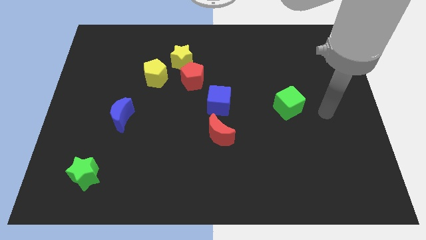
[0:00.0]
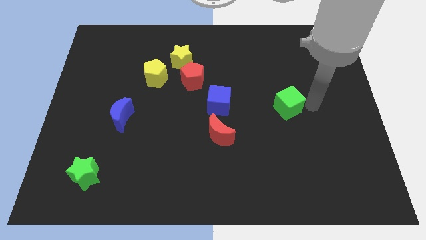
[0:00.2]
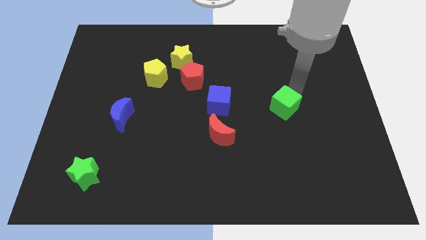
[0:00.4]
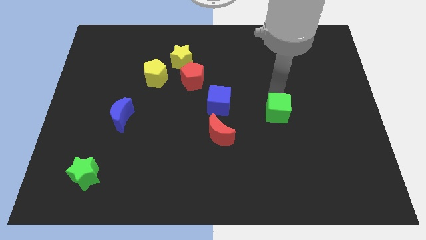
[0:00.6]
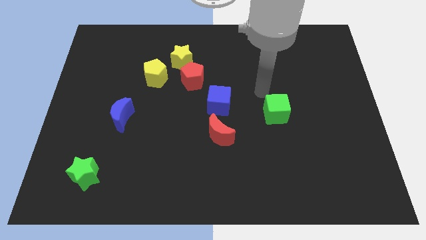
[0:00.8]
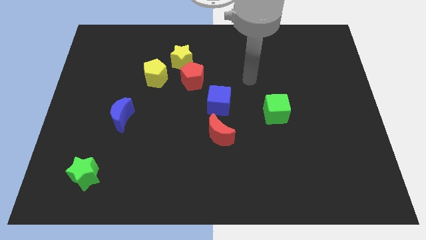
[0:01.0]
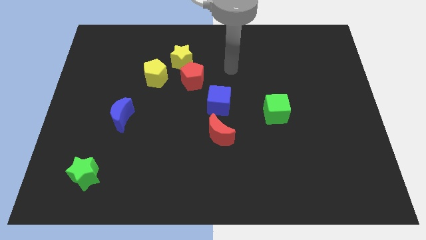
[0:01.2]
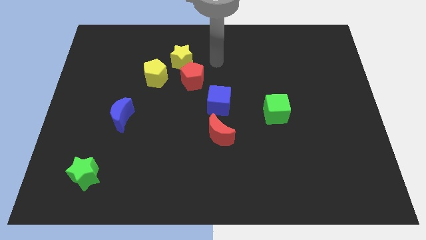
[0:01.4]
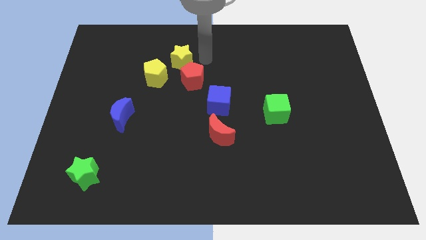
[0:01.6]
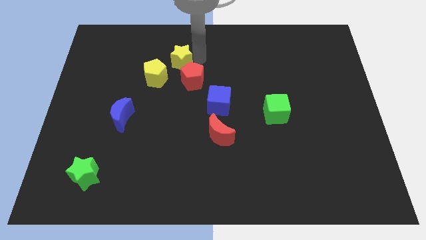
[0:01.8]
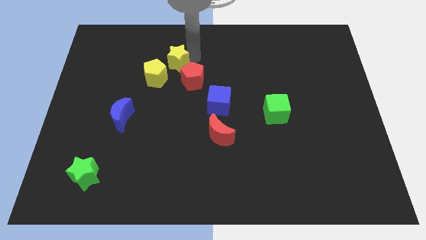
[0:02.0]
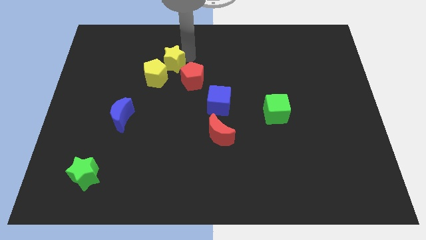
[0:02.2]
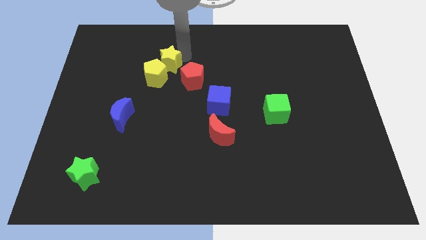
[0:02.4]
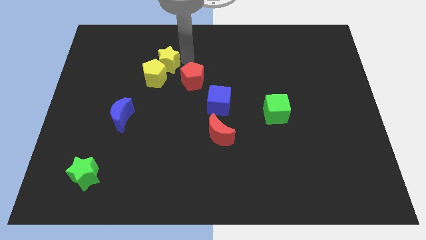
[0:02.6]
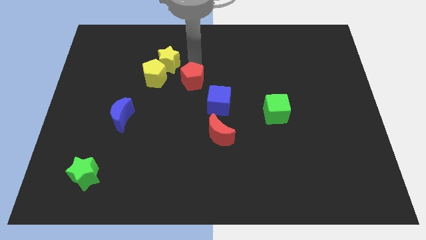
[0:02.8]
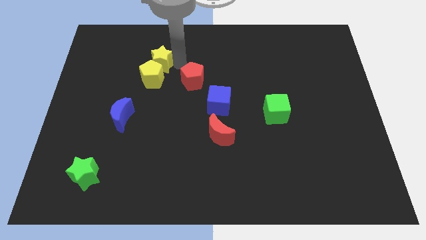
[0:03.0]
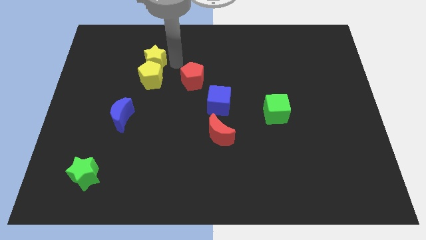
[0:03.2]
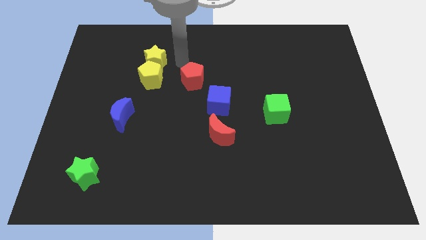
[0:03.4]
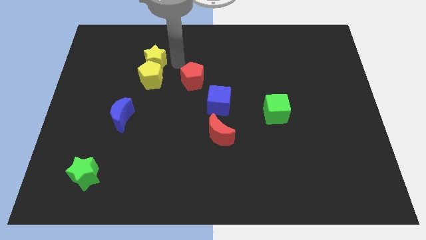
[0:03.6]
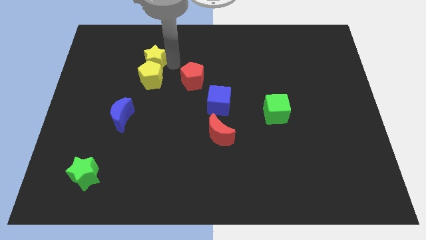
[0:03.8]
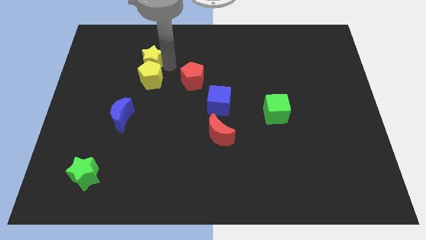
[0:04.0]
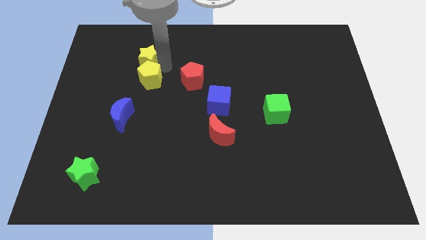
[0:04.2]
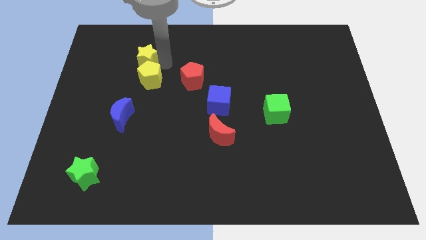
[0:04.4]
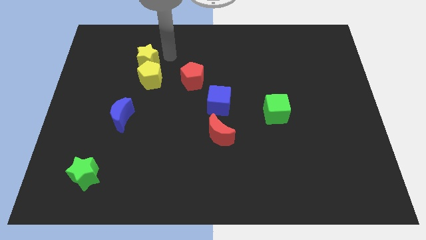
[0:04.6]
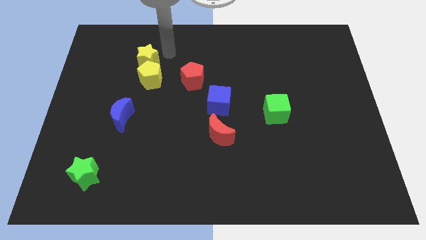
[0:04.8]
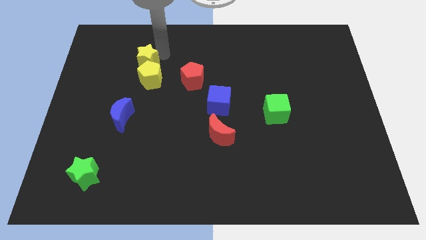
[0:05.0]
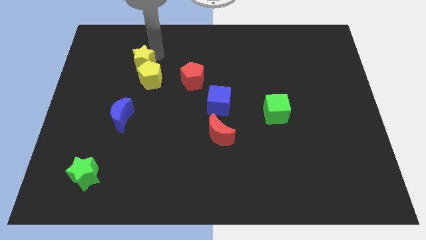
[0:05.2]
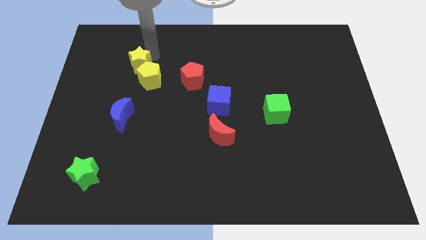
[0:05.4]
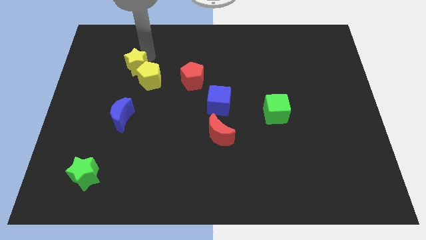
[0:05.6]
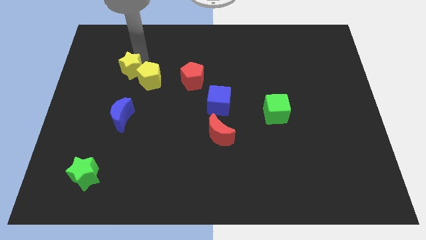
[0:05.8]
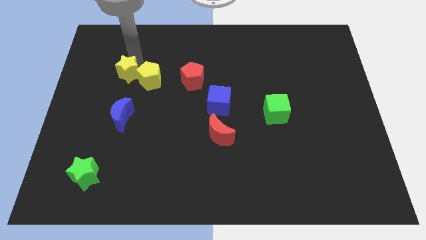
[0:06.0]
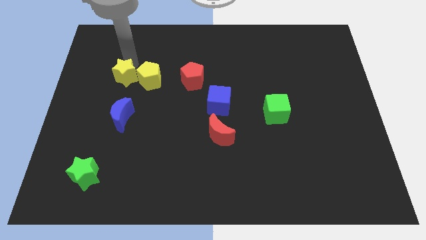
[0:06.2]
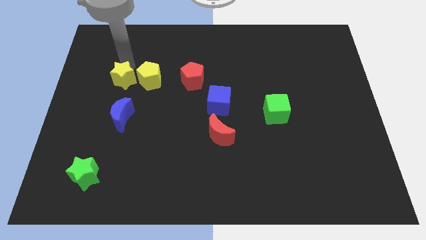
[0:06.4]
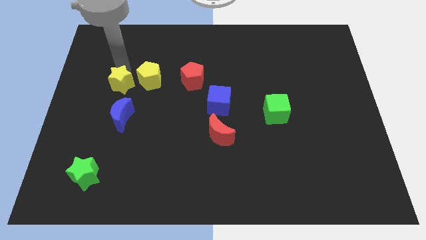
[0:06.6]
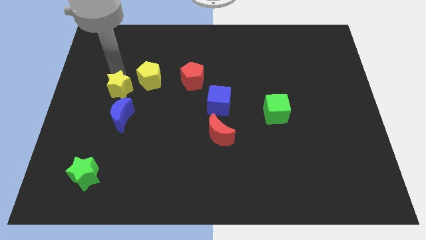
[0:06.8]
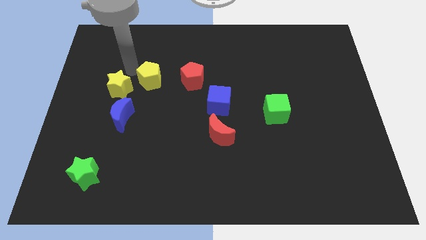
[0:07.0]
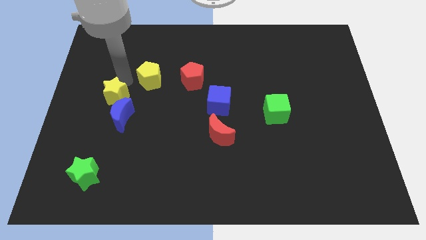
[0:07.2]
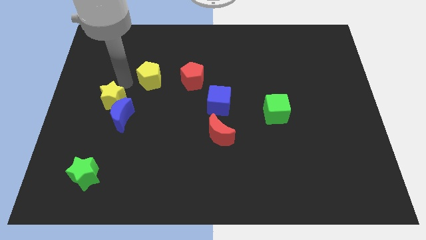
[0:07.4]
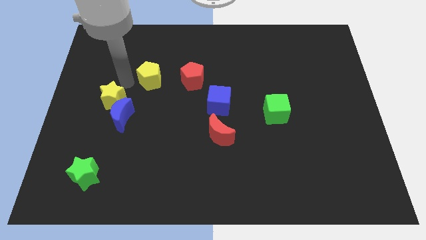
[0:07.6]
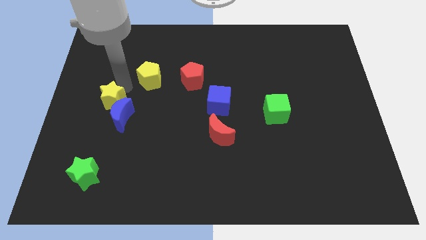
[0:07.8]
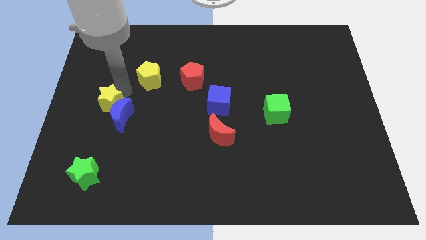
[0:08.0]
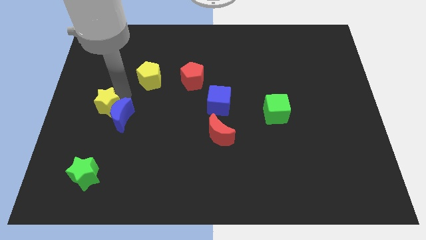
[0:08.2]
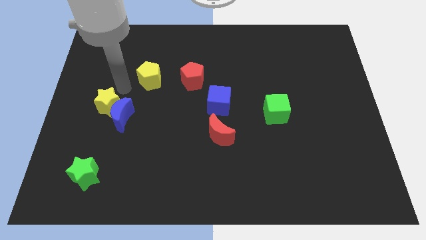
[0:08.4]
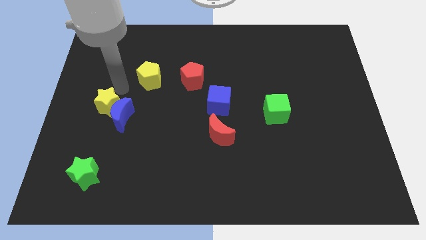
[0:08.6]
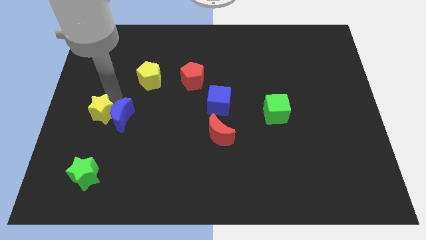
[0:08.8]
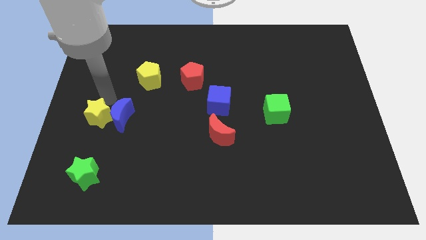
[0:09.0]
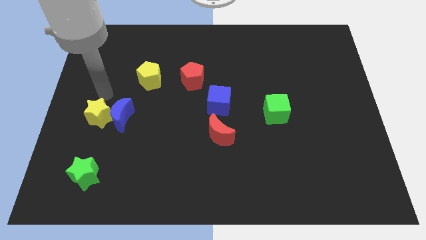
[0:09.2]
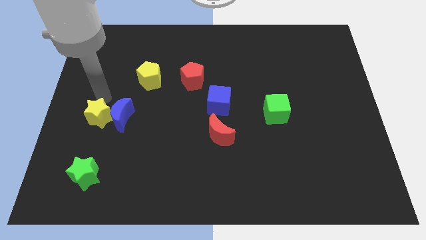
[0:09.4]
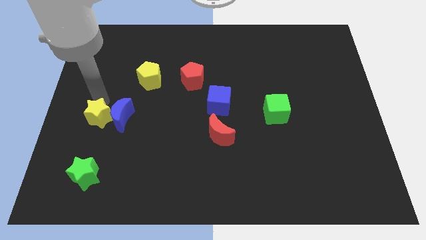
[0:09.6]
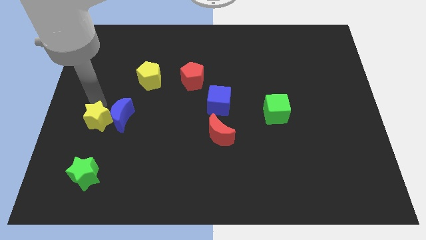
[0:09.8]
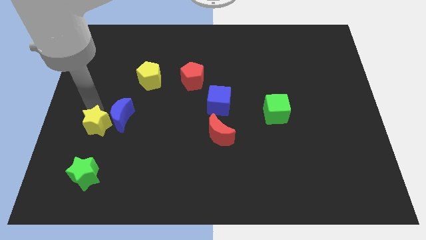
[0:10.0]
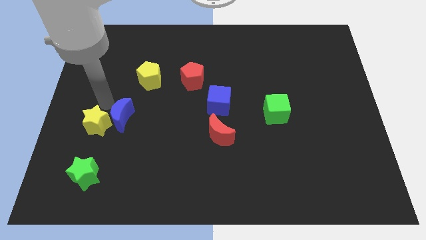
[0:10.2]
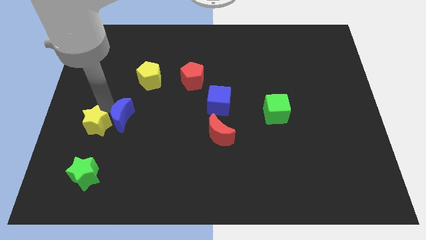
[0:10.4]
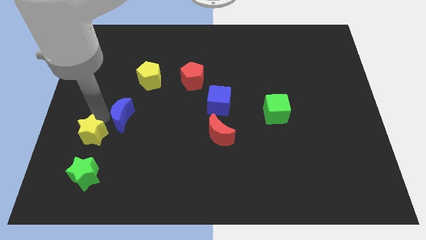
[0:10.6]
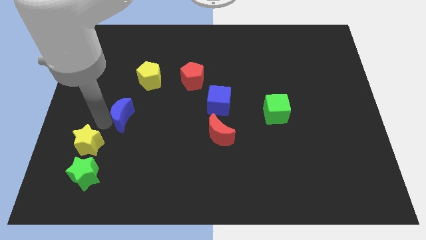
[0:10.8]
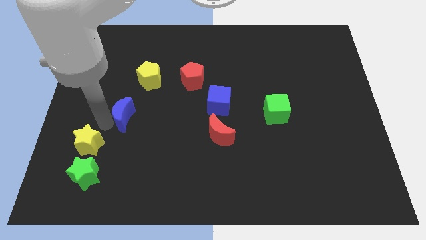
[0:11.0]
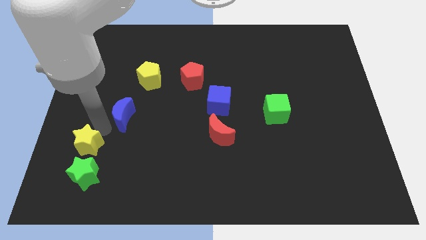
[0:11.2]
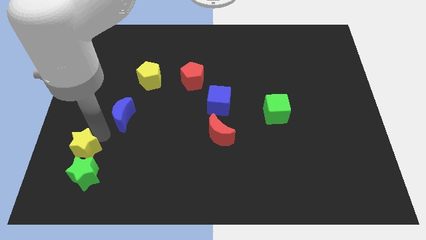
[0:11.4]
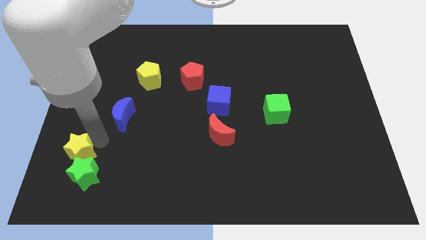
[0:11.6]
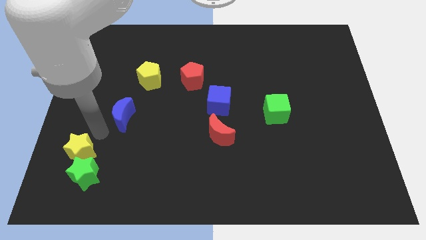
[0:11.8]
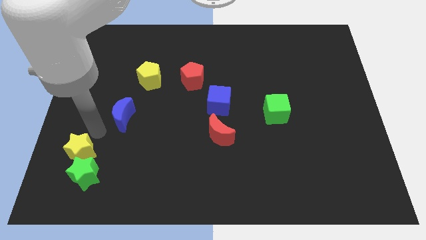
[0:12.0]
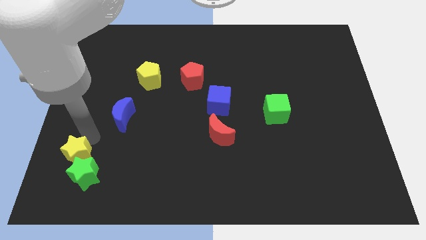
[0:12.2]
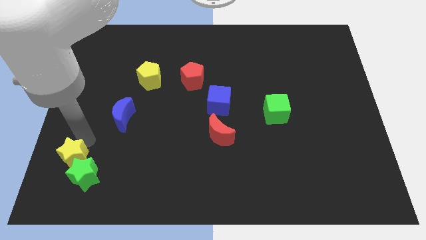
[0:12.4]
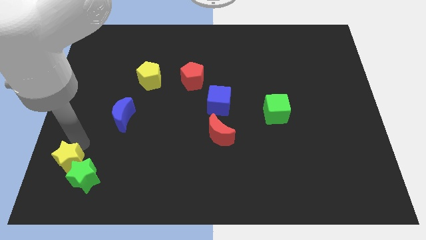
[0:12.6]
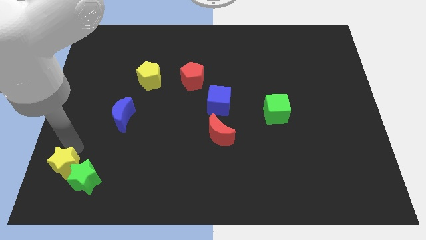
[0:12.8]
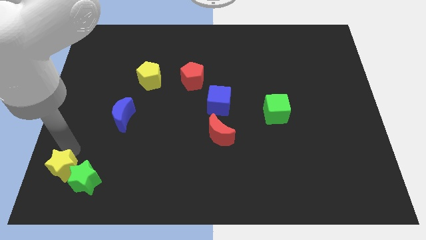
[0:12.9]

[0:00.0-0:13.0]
move the yellow star to the bottom left of the board

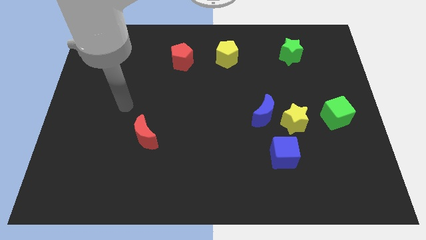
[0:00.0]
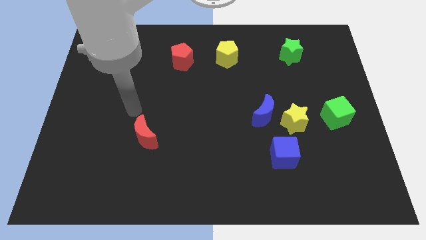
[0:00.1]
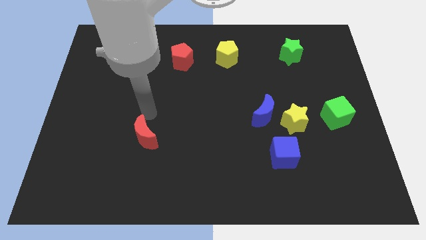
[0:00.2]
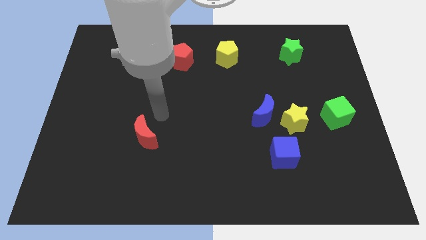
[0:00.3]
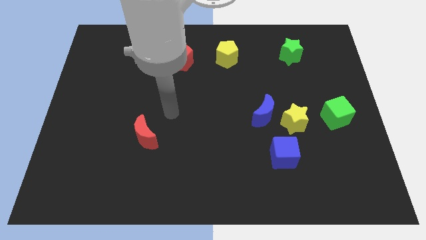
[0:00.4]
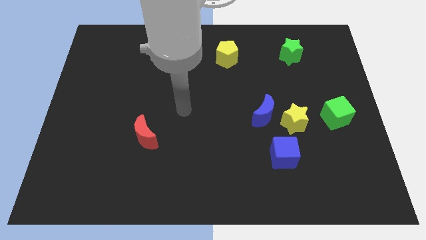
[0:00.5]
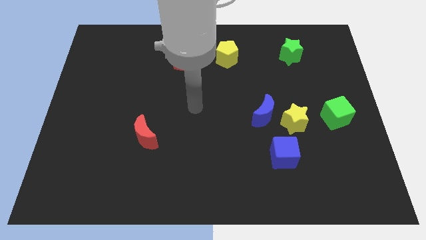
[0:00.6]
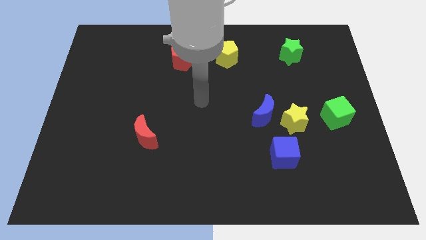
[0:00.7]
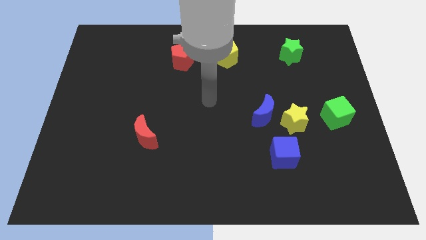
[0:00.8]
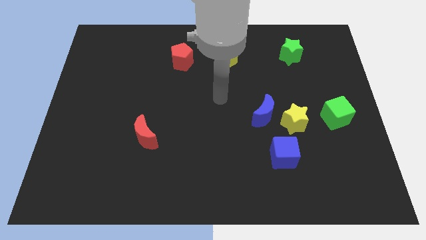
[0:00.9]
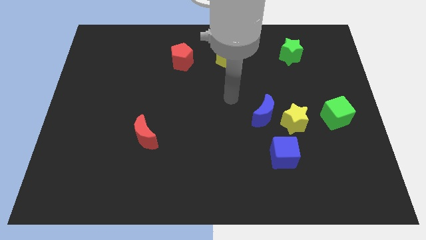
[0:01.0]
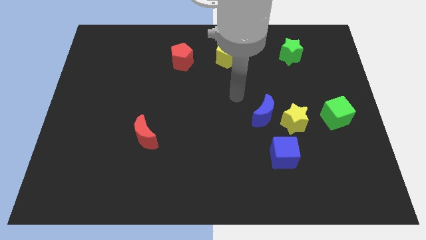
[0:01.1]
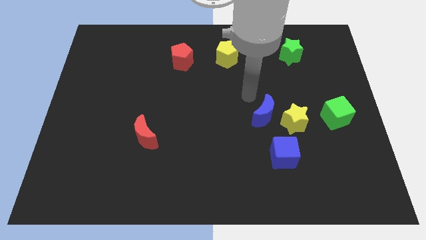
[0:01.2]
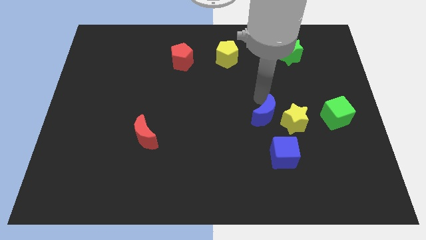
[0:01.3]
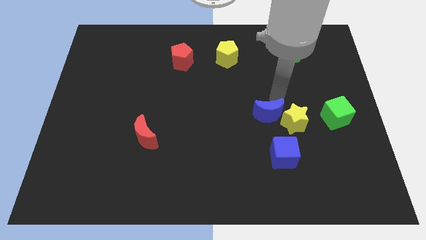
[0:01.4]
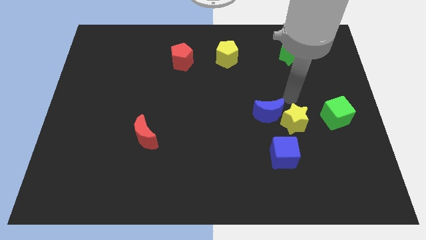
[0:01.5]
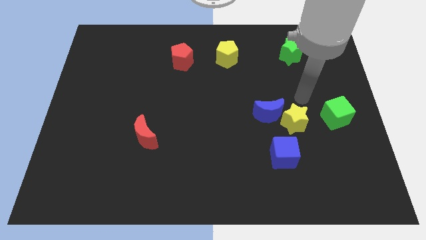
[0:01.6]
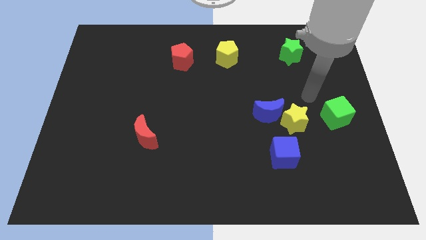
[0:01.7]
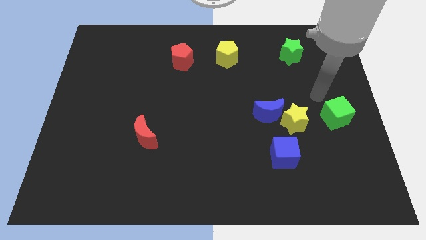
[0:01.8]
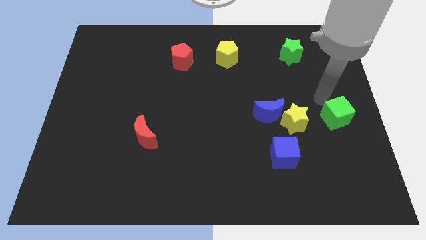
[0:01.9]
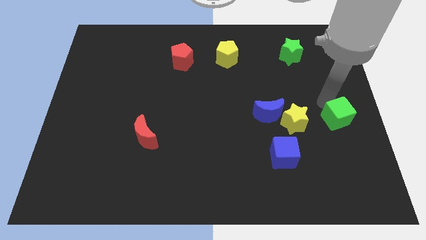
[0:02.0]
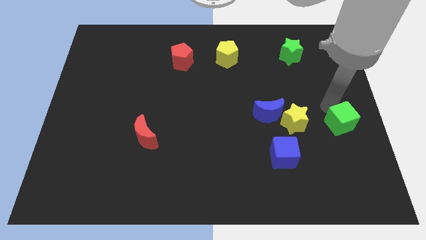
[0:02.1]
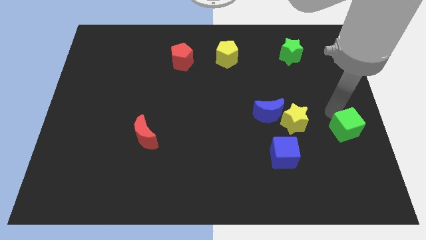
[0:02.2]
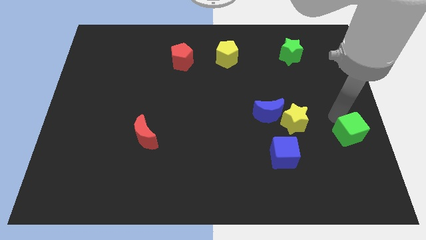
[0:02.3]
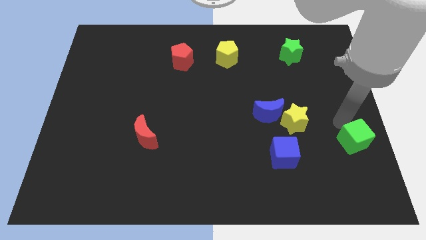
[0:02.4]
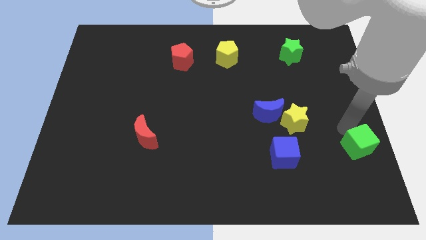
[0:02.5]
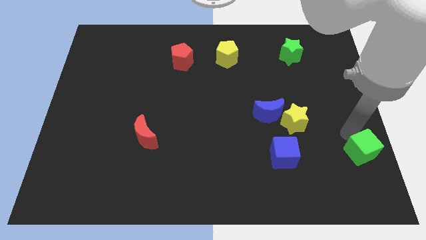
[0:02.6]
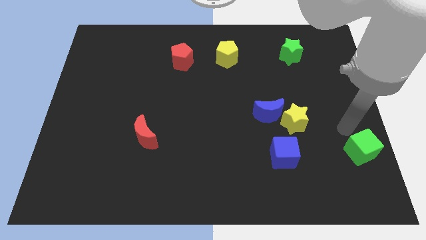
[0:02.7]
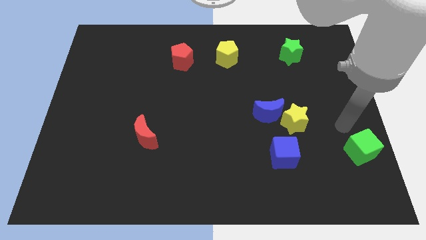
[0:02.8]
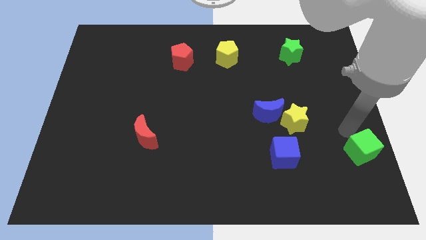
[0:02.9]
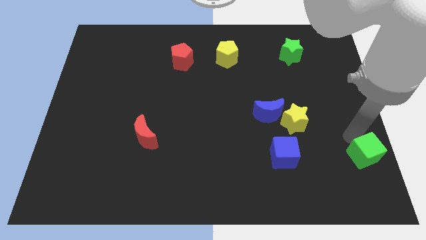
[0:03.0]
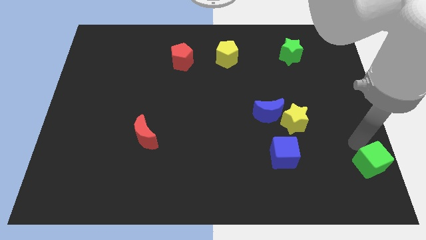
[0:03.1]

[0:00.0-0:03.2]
push the green cube to the bottom right
